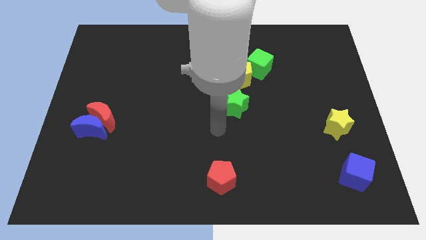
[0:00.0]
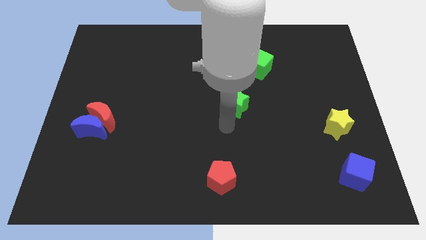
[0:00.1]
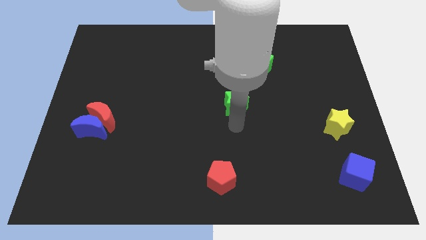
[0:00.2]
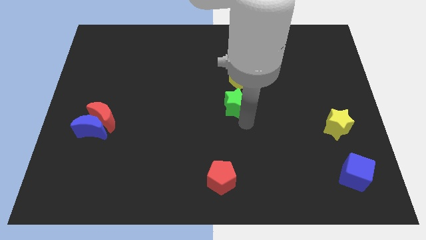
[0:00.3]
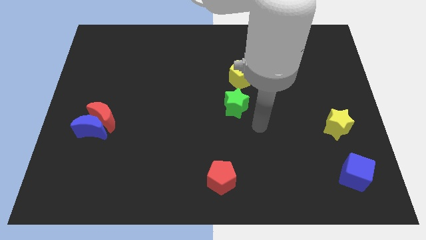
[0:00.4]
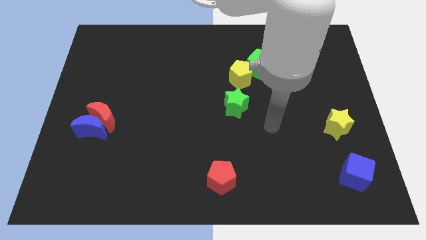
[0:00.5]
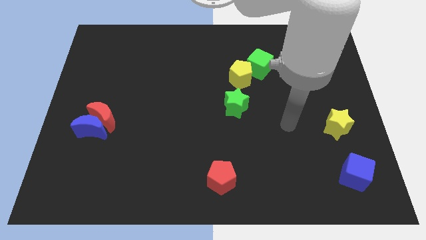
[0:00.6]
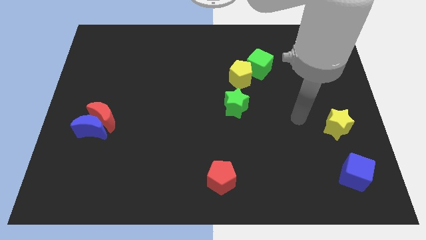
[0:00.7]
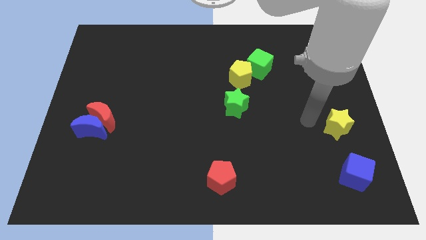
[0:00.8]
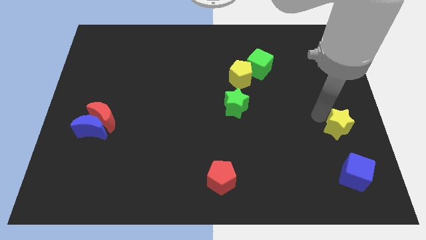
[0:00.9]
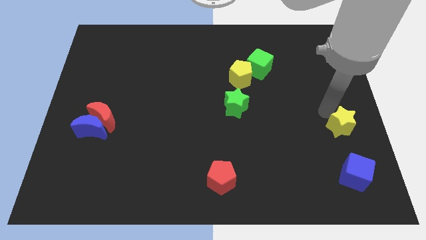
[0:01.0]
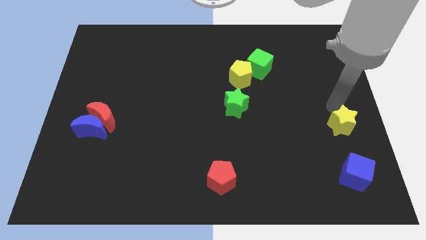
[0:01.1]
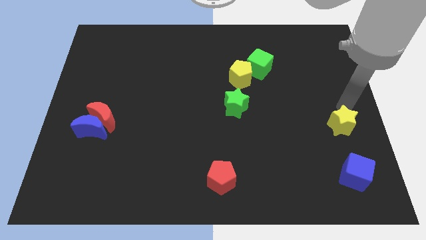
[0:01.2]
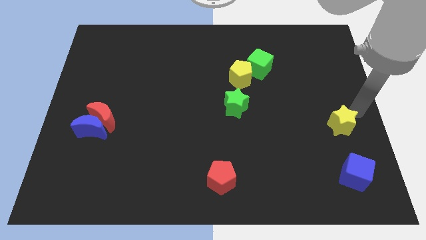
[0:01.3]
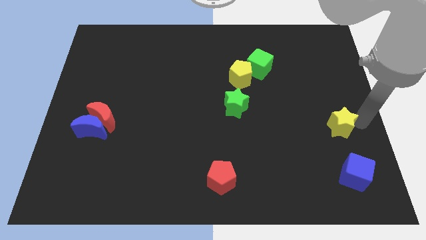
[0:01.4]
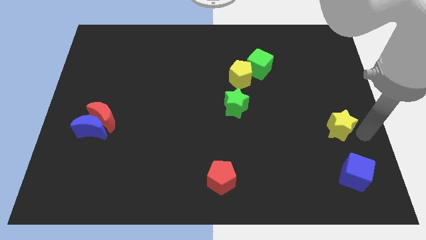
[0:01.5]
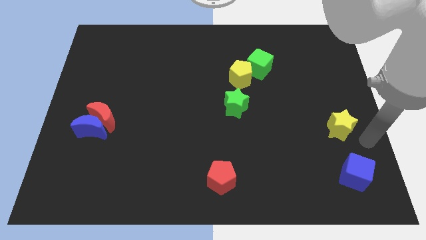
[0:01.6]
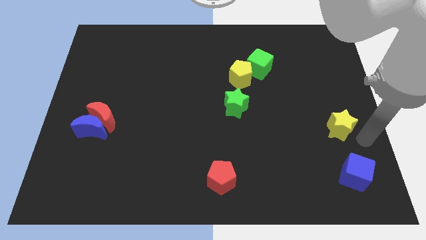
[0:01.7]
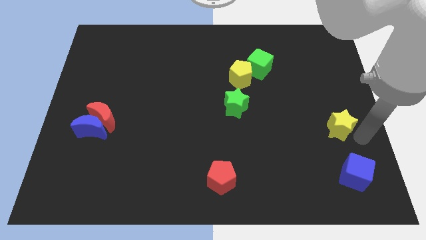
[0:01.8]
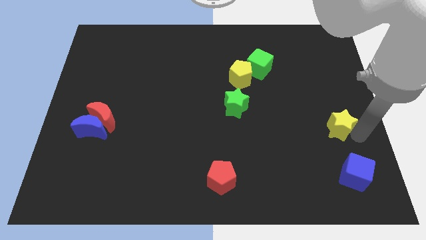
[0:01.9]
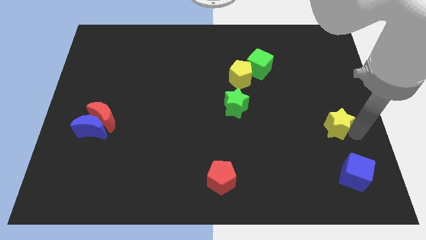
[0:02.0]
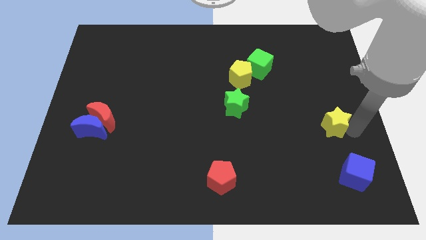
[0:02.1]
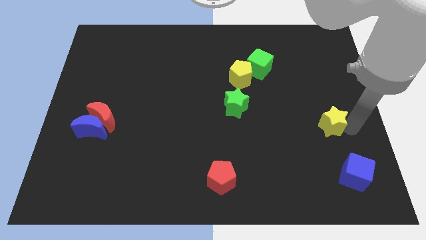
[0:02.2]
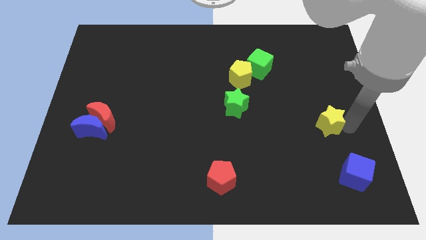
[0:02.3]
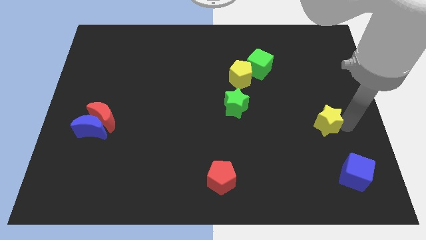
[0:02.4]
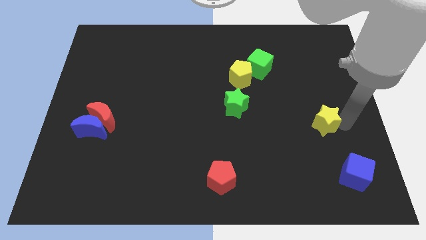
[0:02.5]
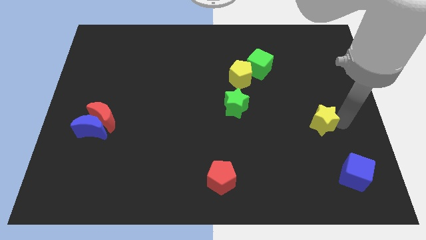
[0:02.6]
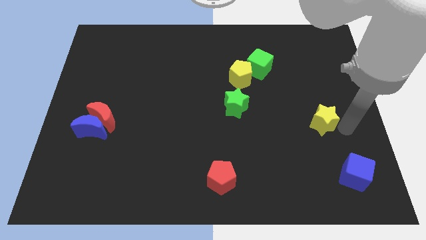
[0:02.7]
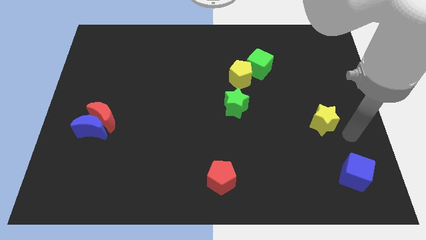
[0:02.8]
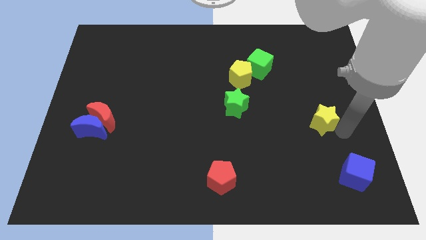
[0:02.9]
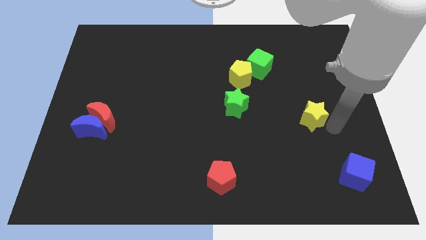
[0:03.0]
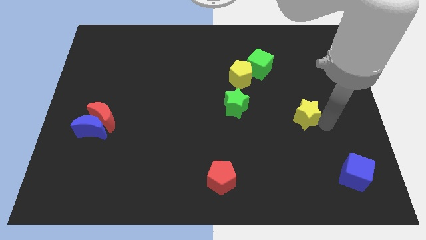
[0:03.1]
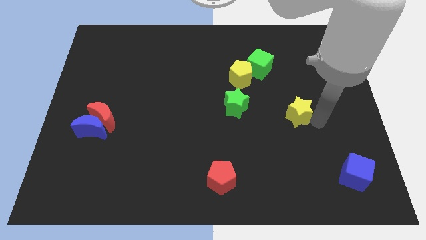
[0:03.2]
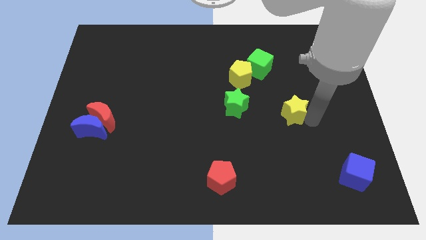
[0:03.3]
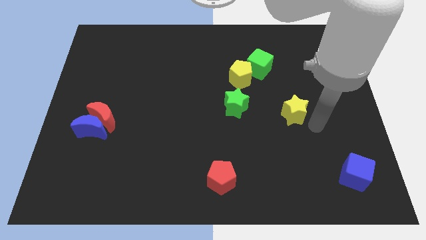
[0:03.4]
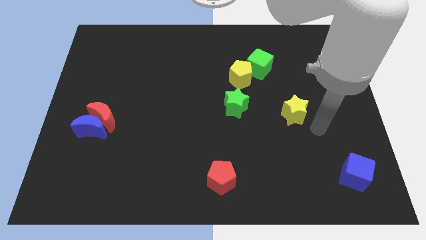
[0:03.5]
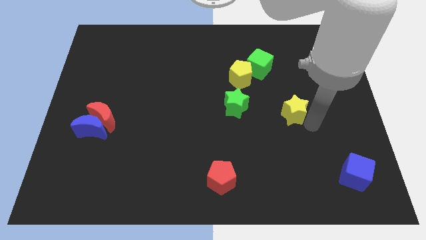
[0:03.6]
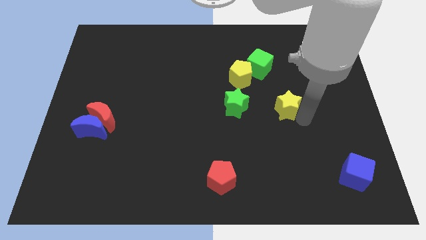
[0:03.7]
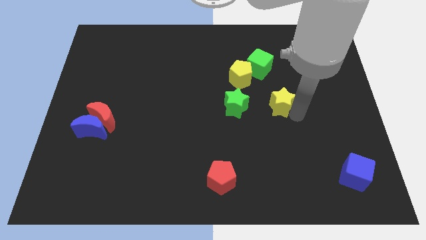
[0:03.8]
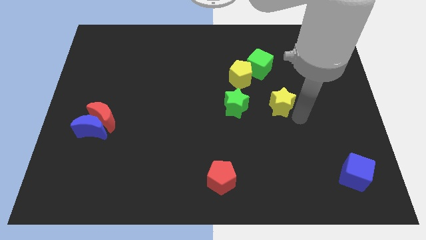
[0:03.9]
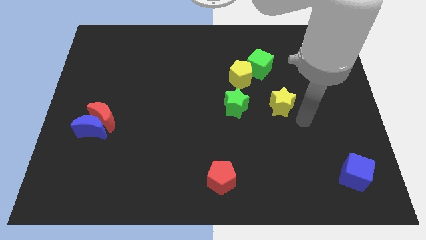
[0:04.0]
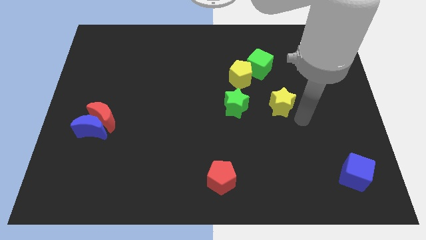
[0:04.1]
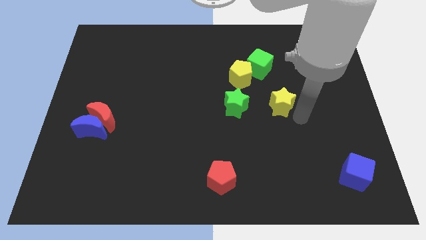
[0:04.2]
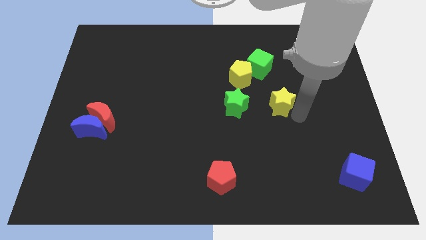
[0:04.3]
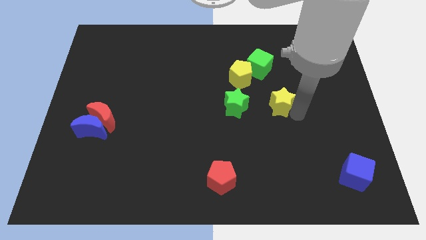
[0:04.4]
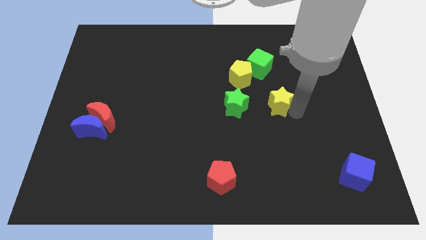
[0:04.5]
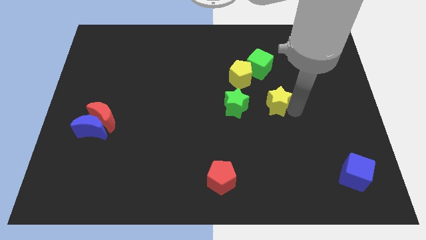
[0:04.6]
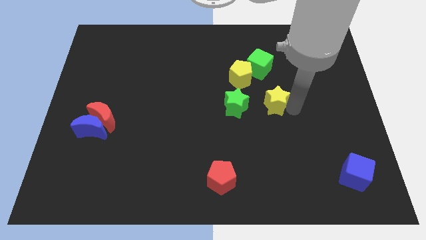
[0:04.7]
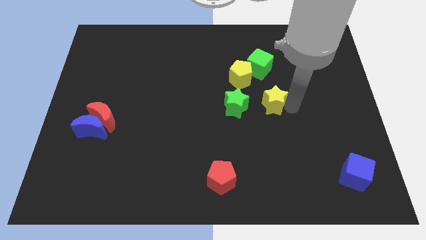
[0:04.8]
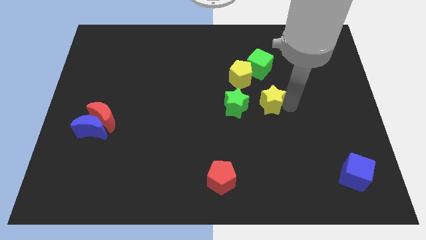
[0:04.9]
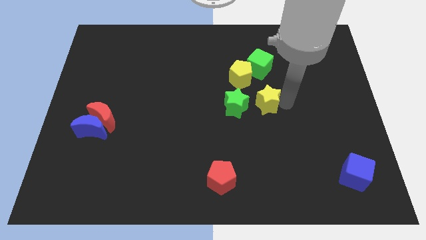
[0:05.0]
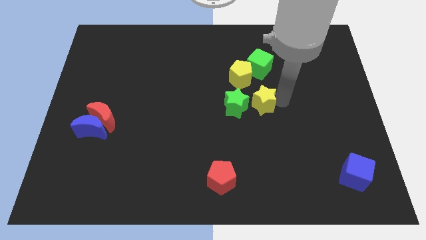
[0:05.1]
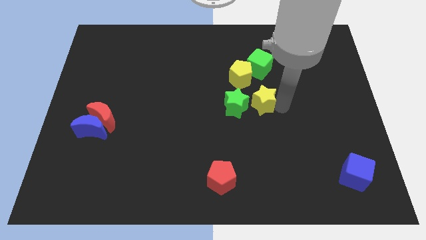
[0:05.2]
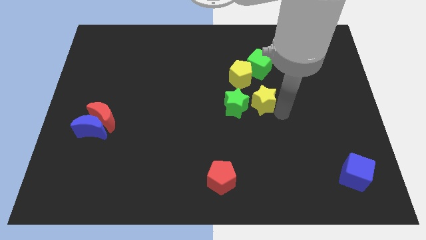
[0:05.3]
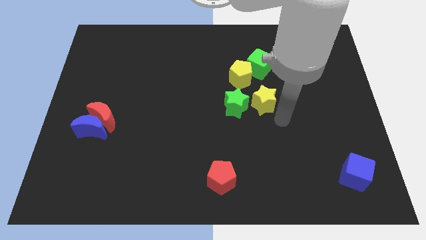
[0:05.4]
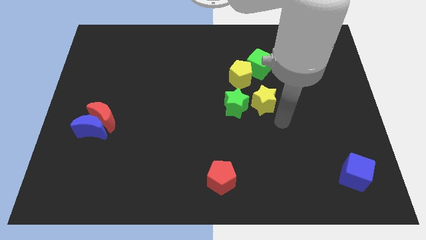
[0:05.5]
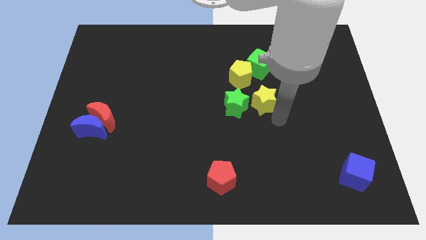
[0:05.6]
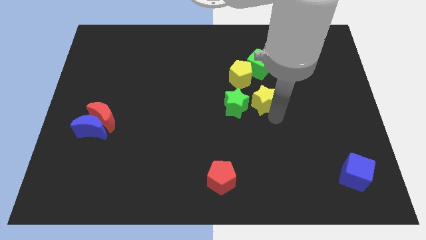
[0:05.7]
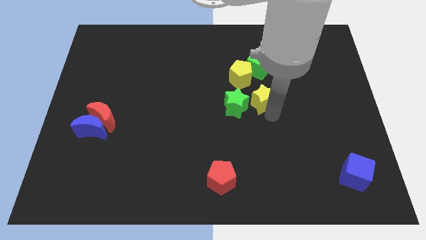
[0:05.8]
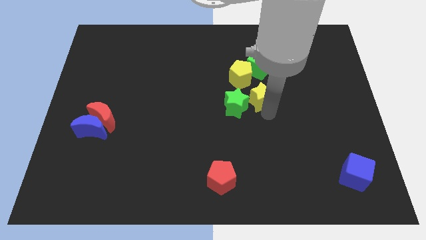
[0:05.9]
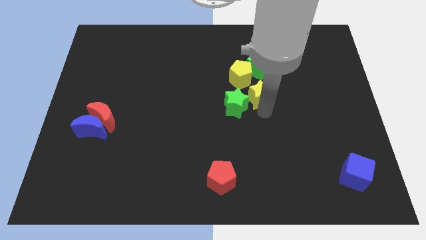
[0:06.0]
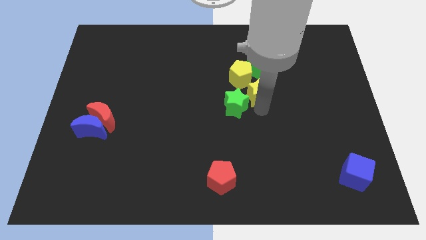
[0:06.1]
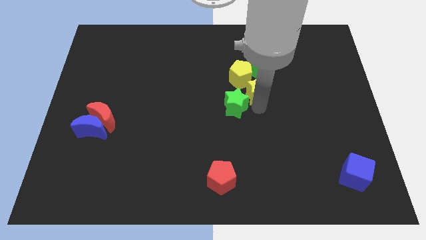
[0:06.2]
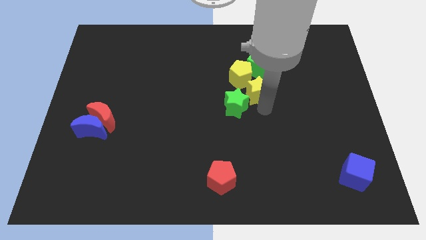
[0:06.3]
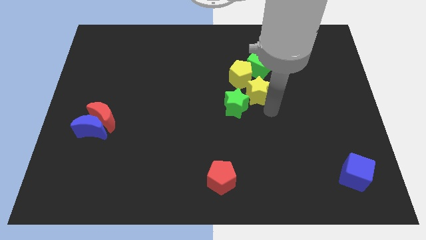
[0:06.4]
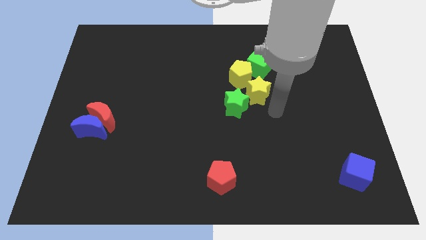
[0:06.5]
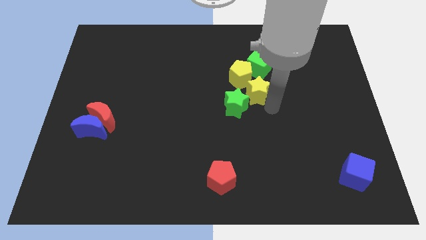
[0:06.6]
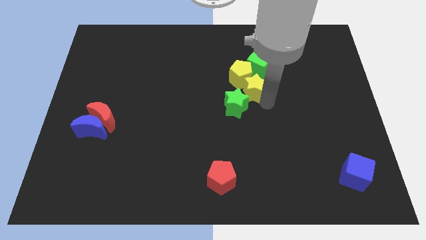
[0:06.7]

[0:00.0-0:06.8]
put the yellow star to the yellow pentagon

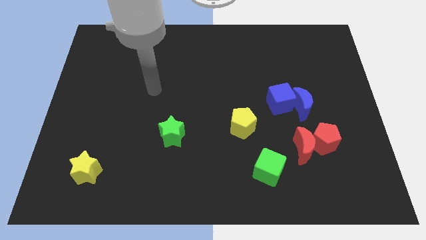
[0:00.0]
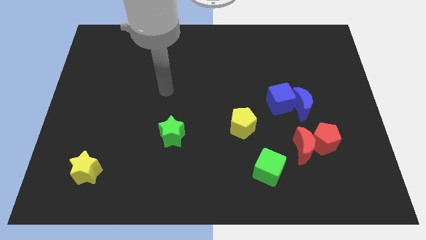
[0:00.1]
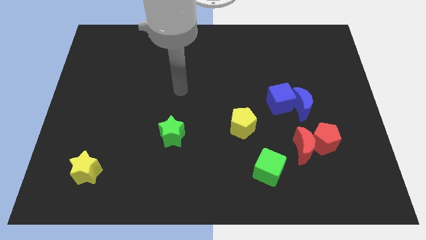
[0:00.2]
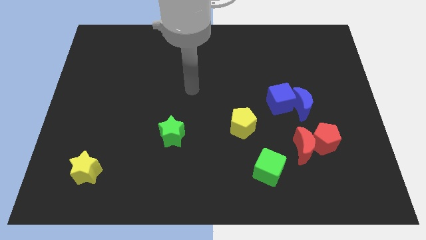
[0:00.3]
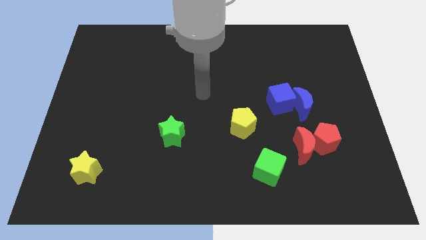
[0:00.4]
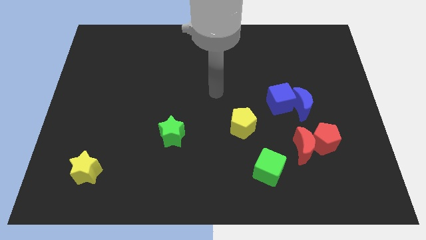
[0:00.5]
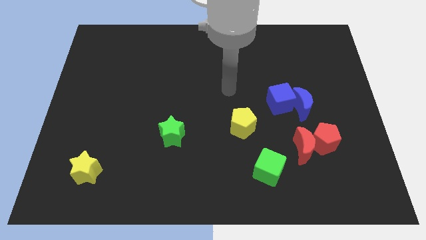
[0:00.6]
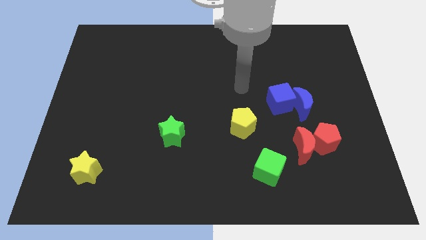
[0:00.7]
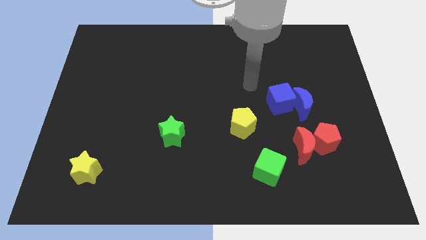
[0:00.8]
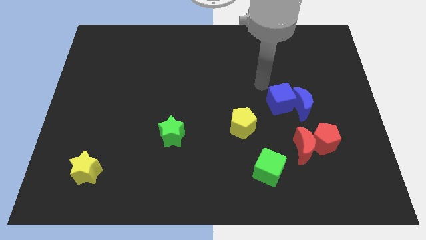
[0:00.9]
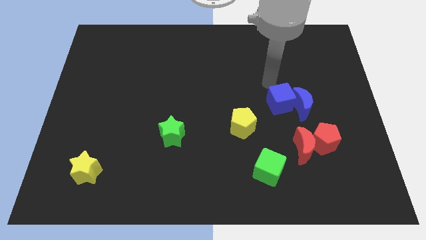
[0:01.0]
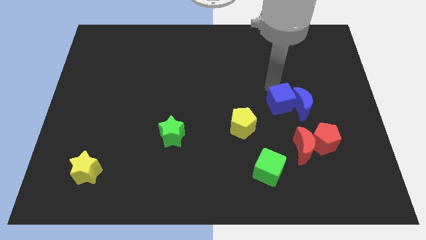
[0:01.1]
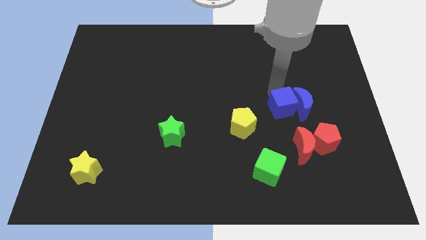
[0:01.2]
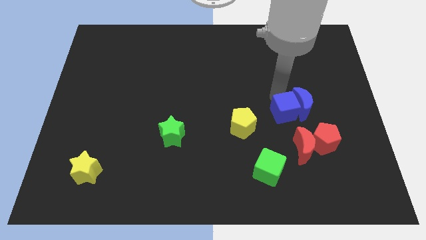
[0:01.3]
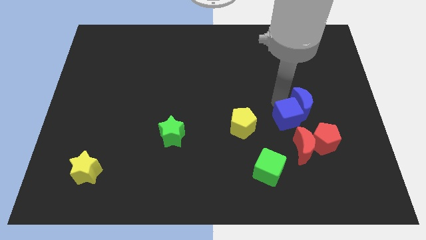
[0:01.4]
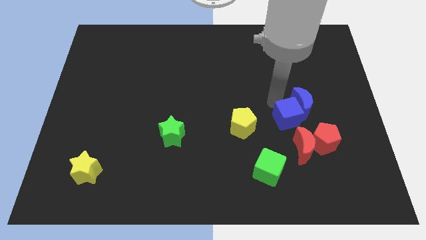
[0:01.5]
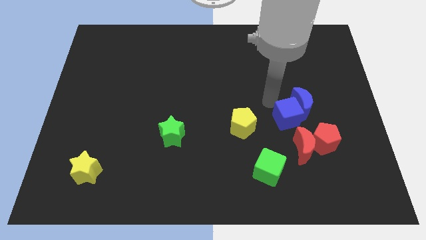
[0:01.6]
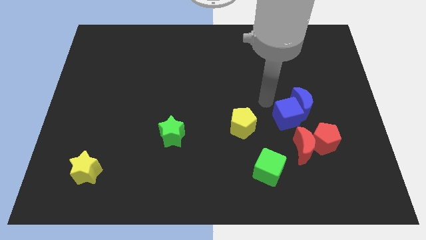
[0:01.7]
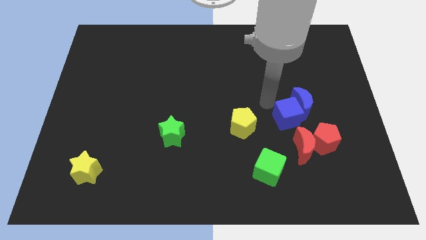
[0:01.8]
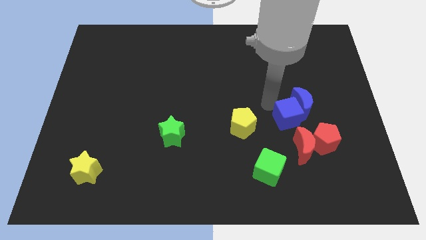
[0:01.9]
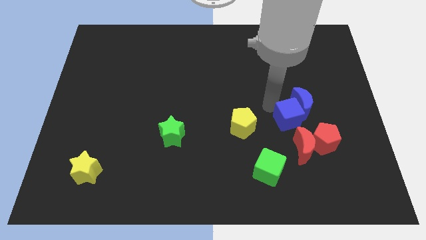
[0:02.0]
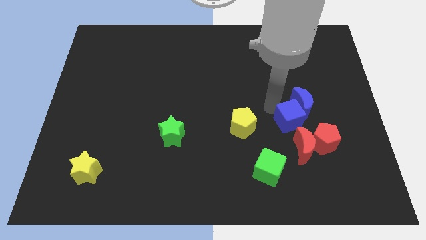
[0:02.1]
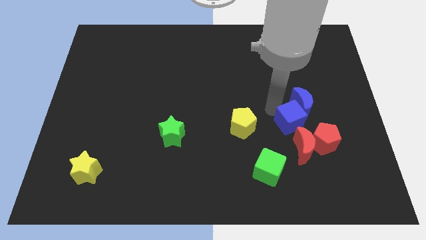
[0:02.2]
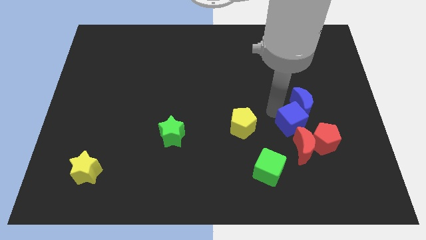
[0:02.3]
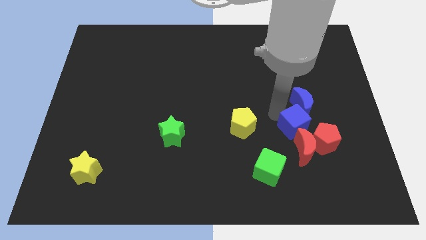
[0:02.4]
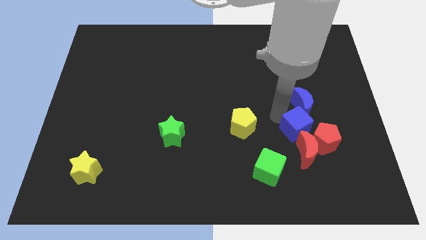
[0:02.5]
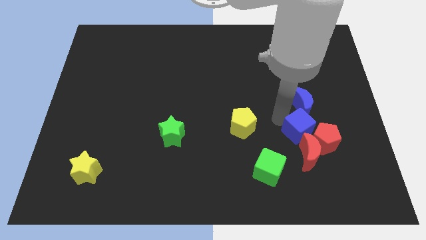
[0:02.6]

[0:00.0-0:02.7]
push the blue cube to the red pentagon
